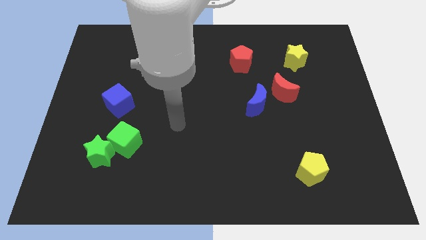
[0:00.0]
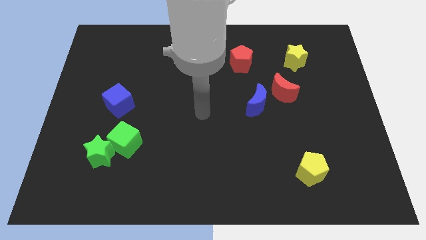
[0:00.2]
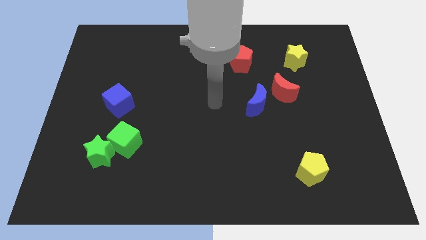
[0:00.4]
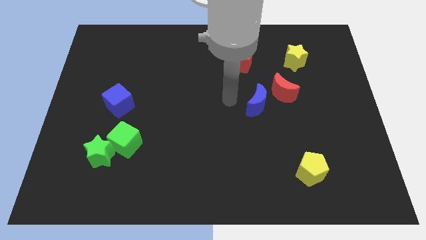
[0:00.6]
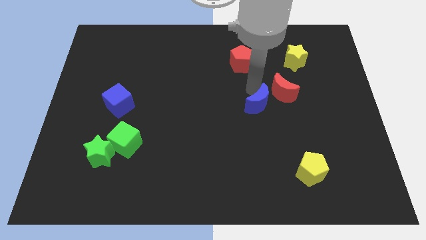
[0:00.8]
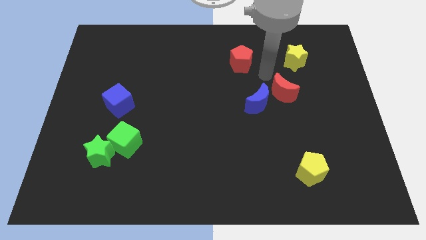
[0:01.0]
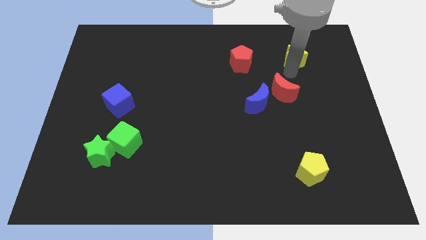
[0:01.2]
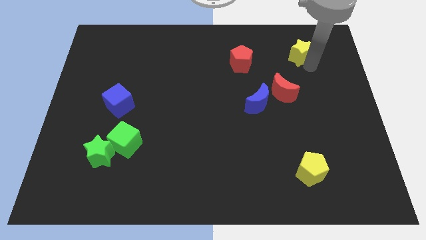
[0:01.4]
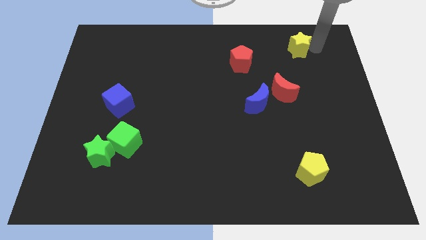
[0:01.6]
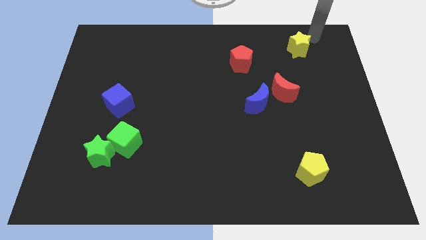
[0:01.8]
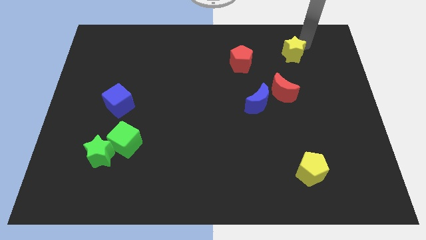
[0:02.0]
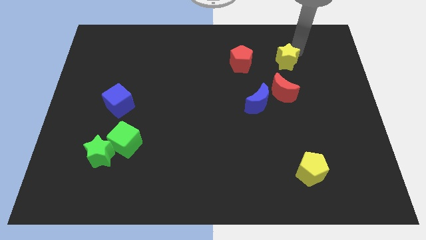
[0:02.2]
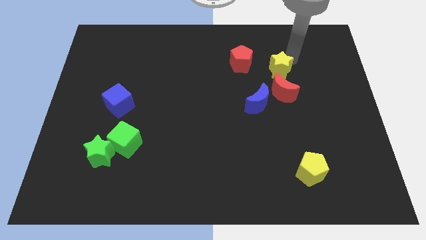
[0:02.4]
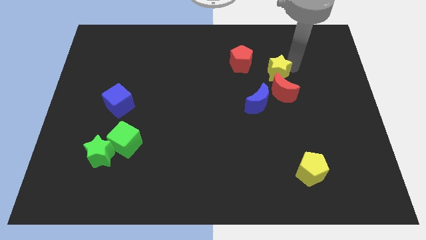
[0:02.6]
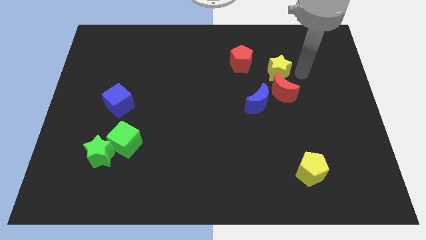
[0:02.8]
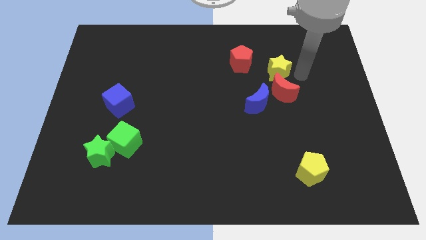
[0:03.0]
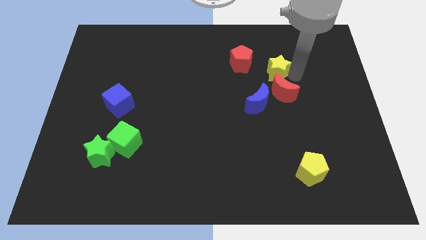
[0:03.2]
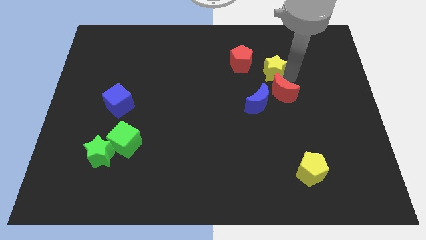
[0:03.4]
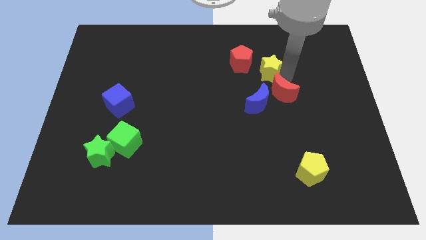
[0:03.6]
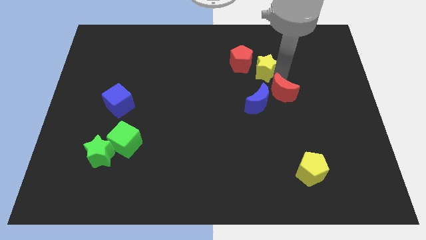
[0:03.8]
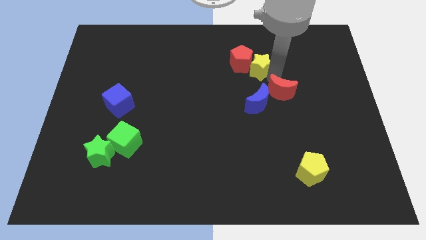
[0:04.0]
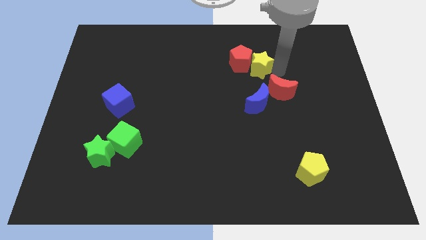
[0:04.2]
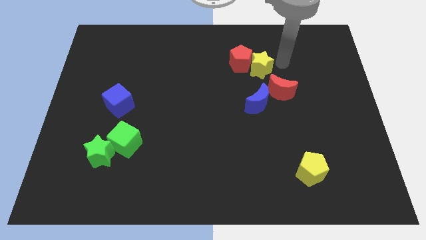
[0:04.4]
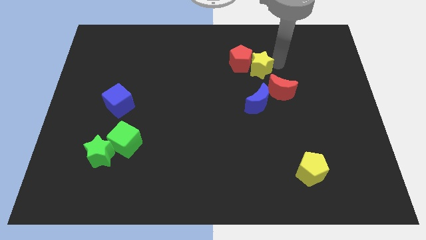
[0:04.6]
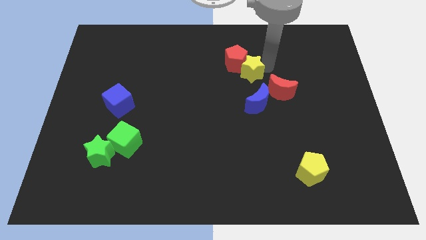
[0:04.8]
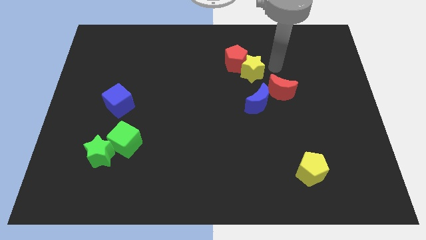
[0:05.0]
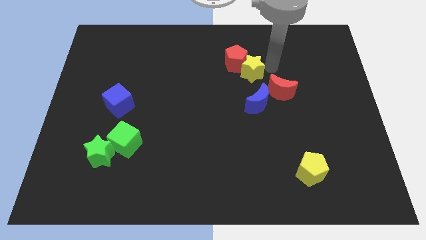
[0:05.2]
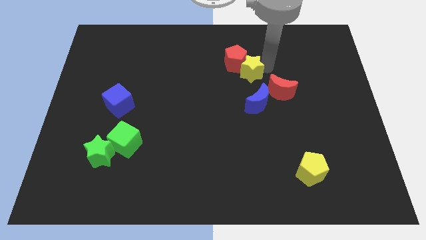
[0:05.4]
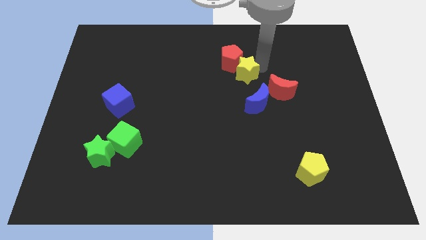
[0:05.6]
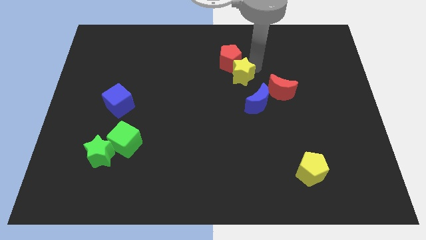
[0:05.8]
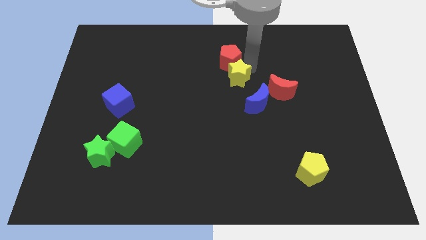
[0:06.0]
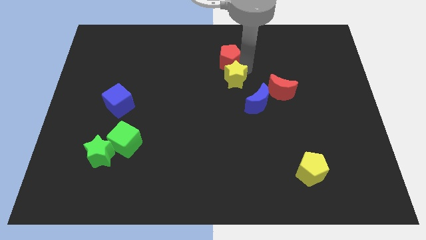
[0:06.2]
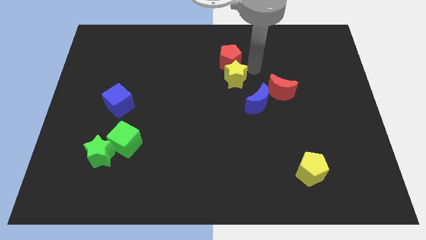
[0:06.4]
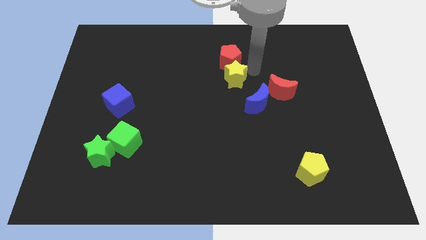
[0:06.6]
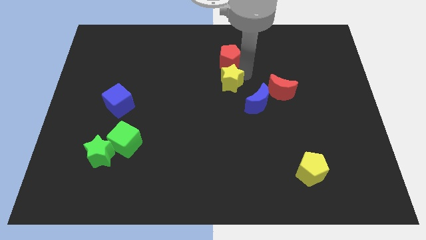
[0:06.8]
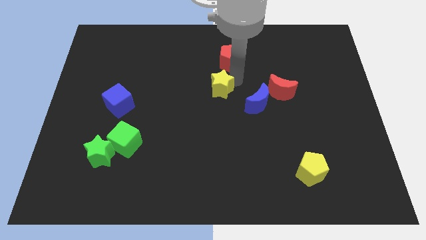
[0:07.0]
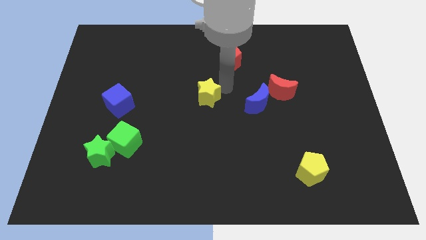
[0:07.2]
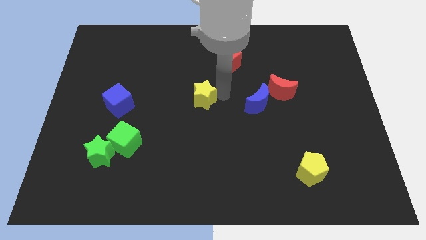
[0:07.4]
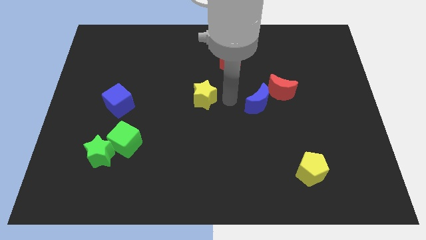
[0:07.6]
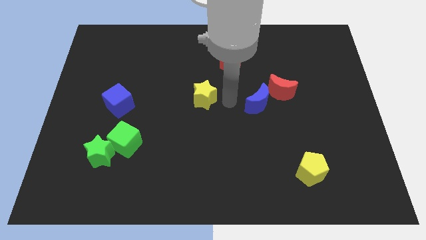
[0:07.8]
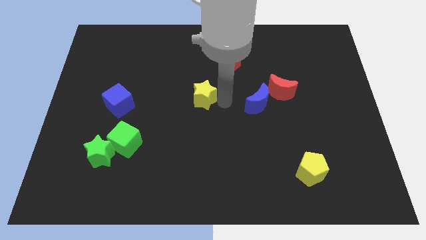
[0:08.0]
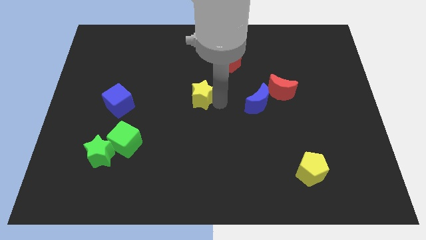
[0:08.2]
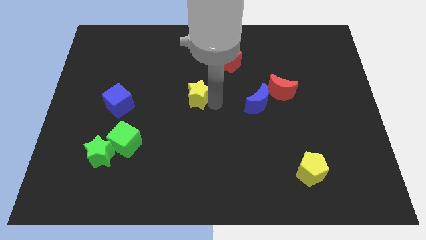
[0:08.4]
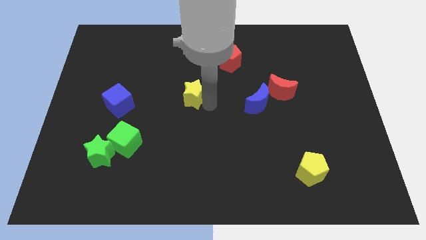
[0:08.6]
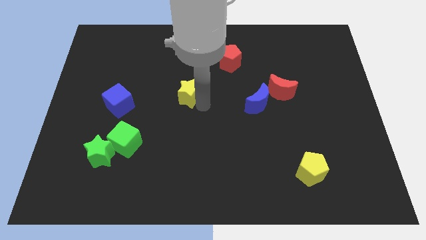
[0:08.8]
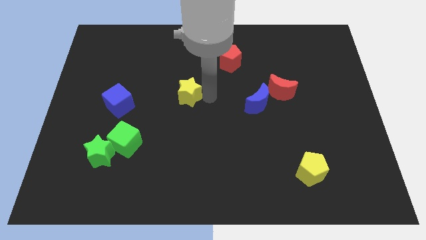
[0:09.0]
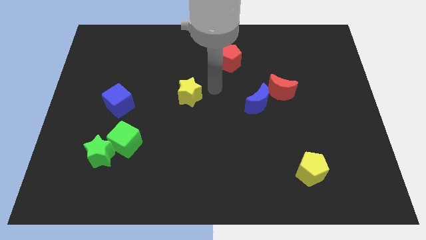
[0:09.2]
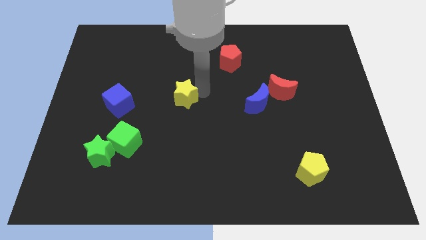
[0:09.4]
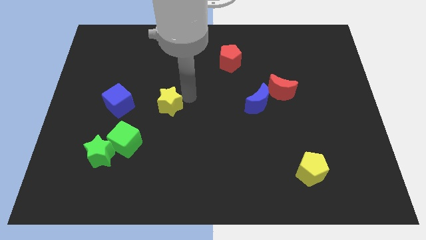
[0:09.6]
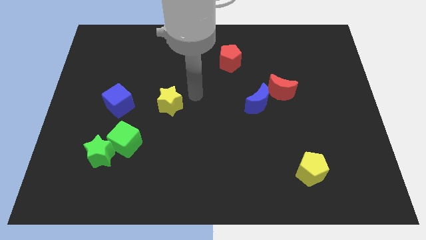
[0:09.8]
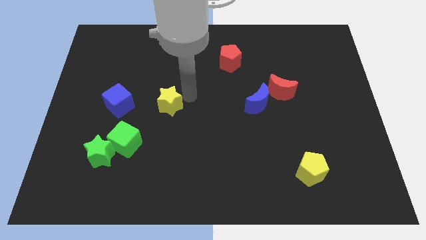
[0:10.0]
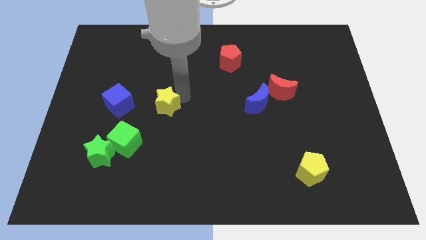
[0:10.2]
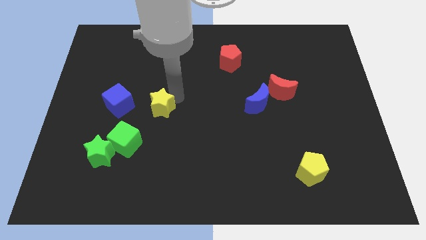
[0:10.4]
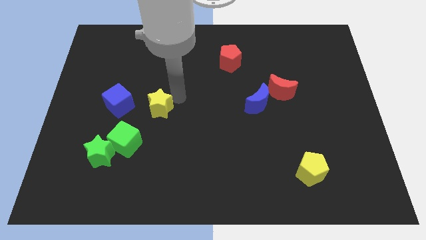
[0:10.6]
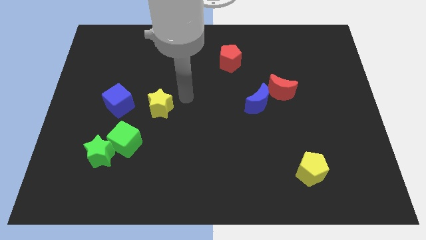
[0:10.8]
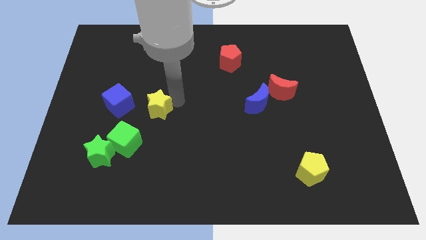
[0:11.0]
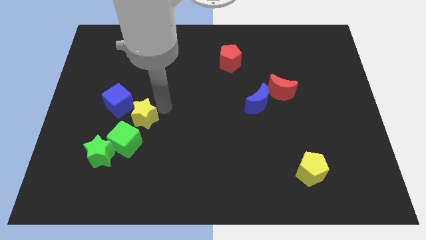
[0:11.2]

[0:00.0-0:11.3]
move the yellow star to the top right of the green star

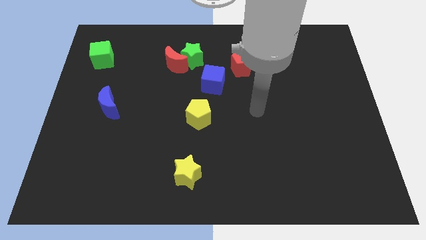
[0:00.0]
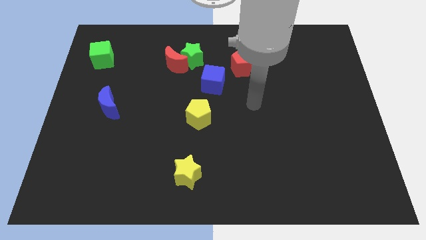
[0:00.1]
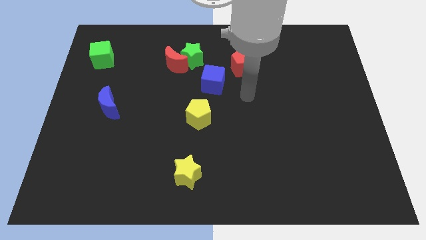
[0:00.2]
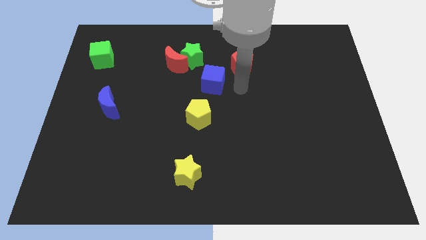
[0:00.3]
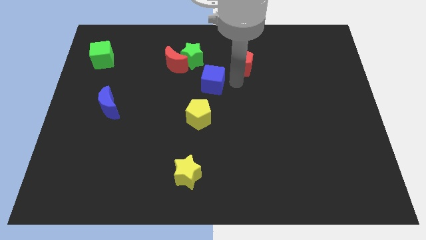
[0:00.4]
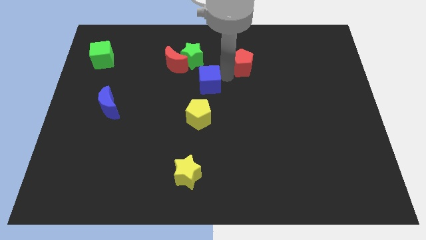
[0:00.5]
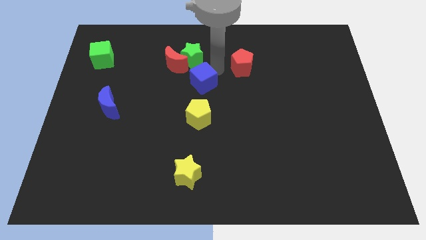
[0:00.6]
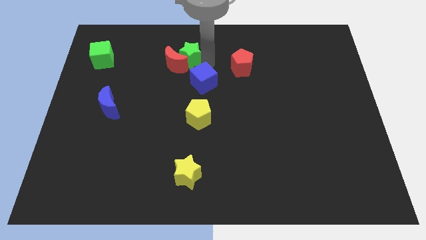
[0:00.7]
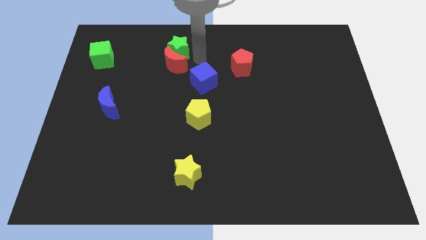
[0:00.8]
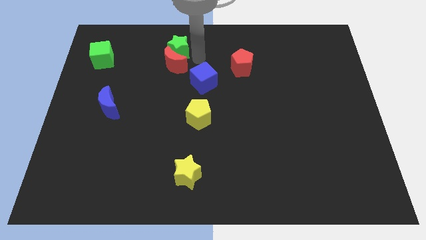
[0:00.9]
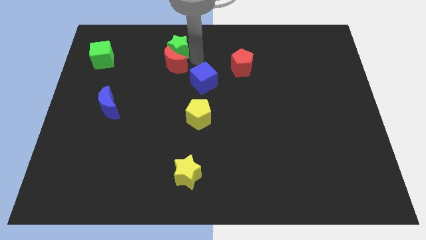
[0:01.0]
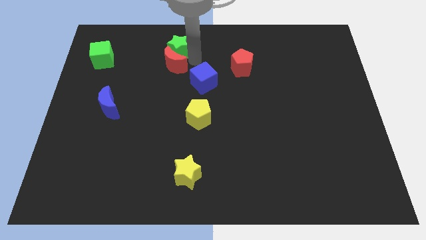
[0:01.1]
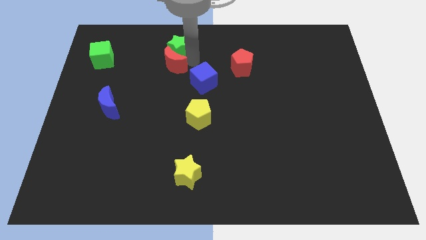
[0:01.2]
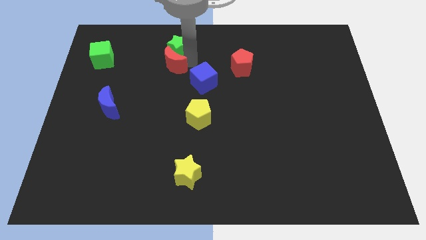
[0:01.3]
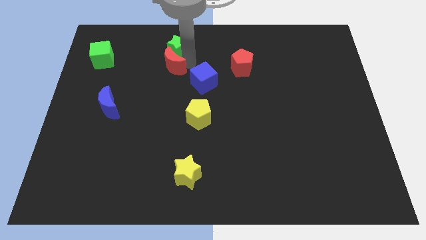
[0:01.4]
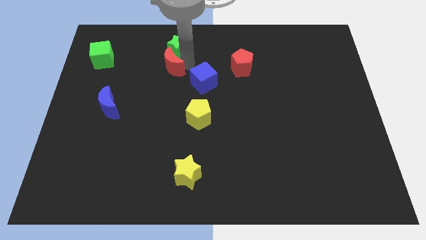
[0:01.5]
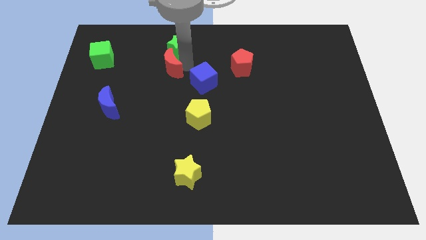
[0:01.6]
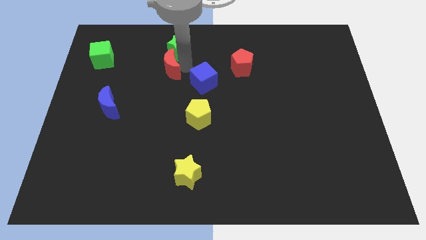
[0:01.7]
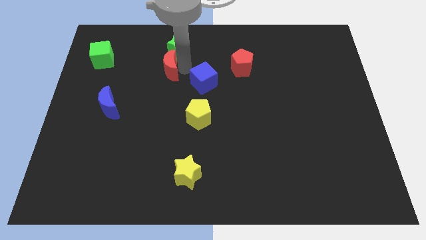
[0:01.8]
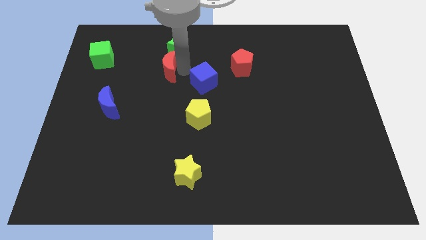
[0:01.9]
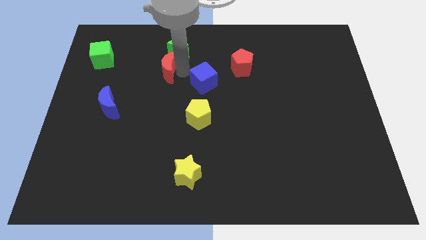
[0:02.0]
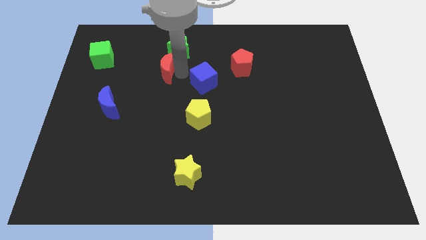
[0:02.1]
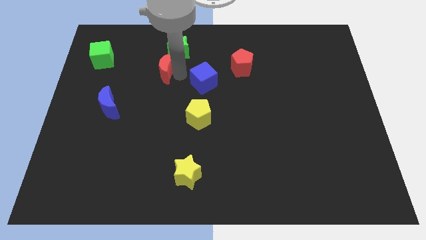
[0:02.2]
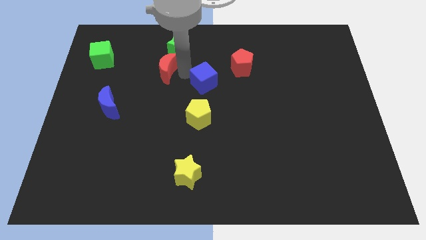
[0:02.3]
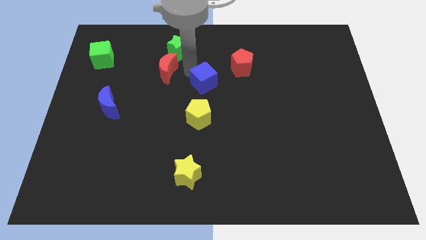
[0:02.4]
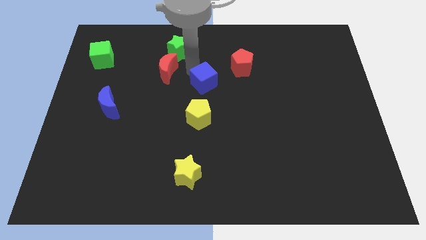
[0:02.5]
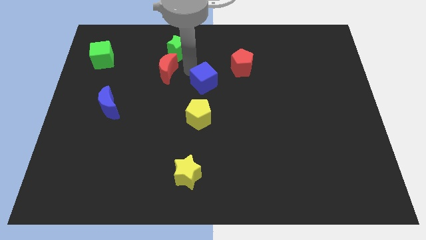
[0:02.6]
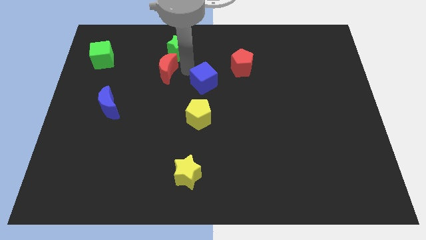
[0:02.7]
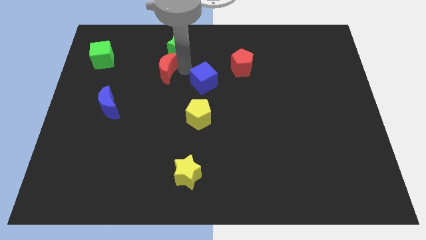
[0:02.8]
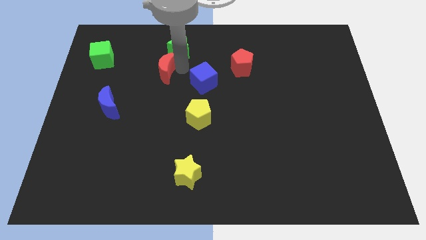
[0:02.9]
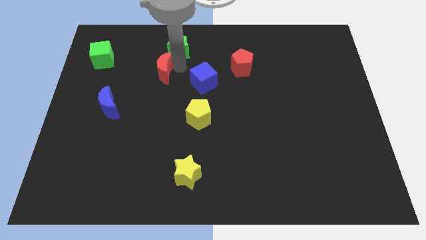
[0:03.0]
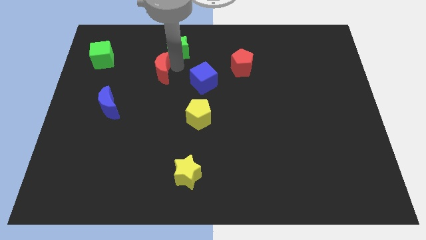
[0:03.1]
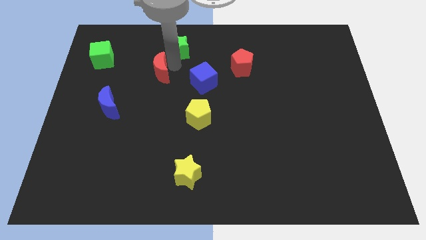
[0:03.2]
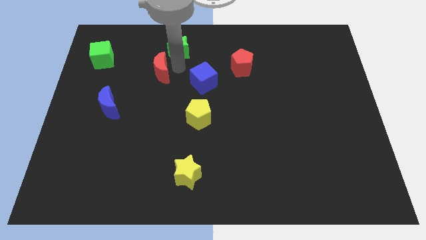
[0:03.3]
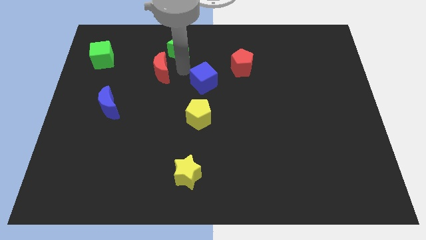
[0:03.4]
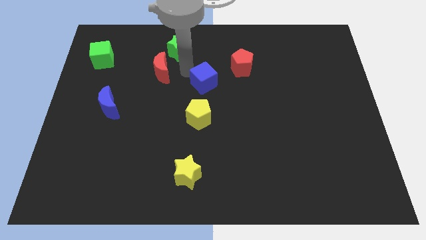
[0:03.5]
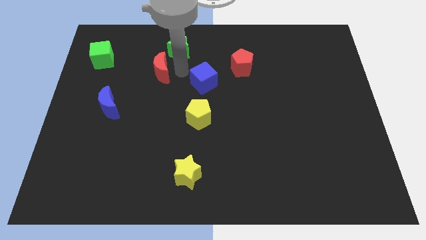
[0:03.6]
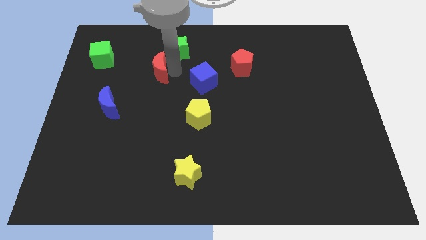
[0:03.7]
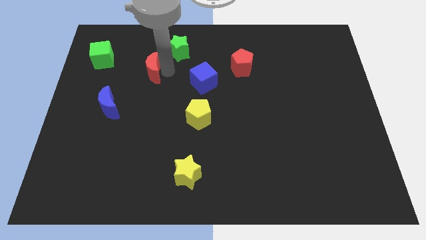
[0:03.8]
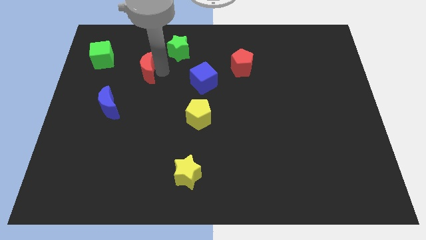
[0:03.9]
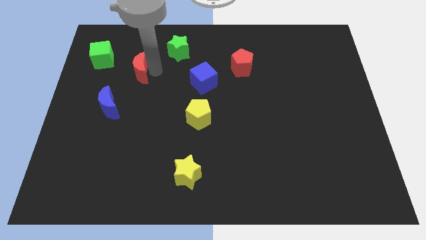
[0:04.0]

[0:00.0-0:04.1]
move the red moon to the bottom right side of the green cube
